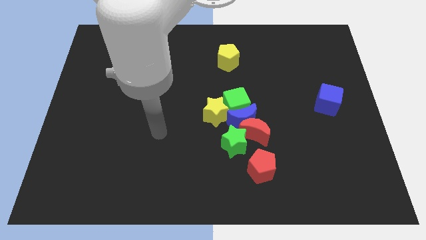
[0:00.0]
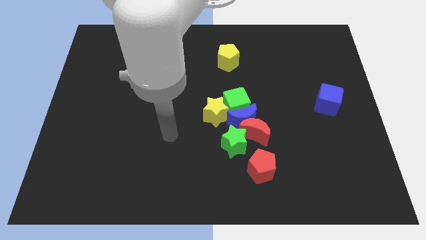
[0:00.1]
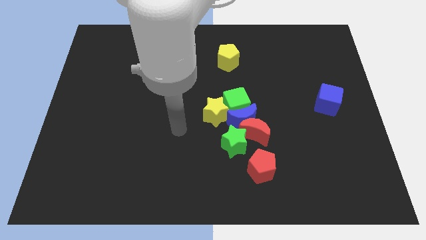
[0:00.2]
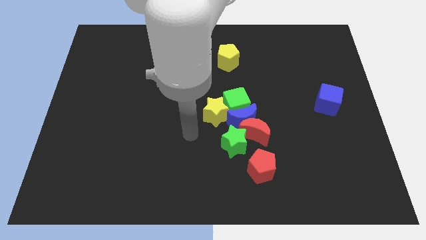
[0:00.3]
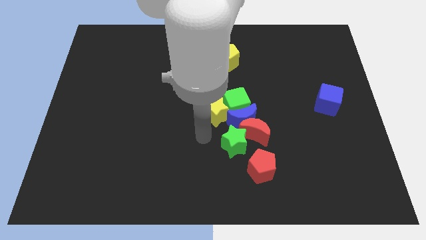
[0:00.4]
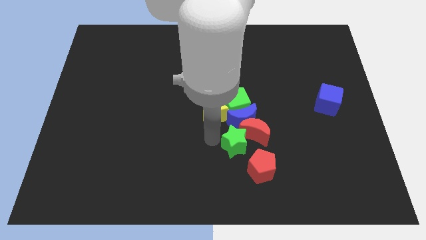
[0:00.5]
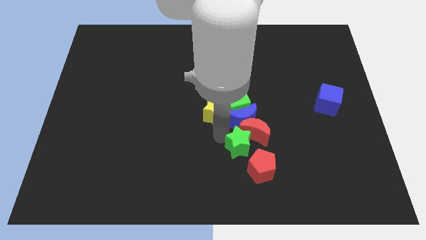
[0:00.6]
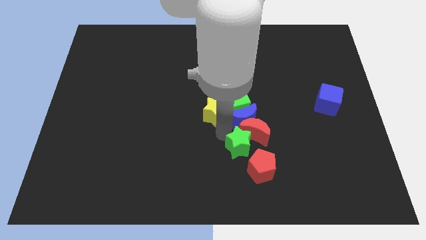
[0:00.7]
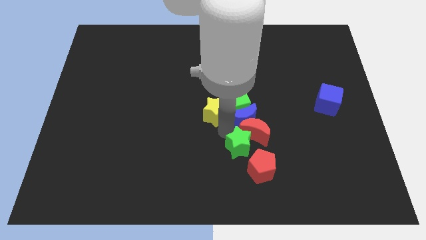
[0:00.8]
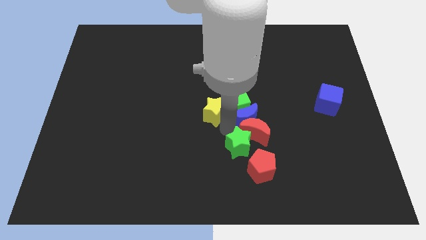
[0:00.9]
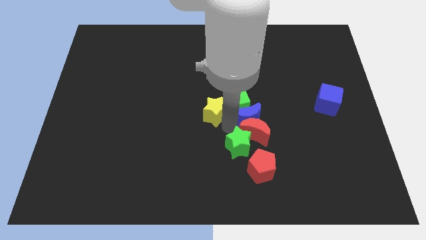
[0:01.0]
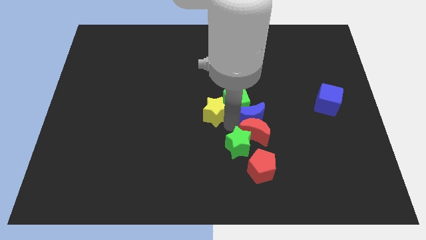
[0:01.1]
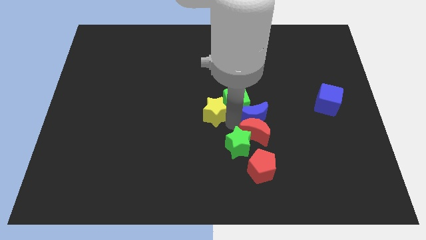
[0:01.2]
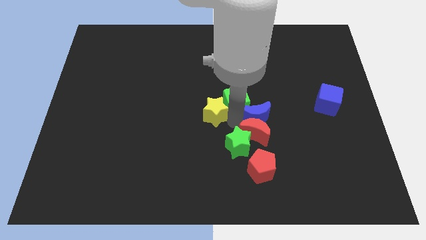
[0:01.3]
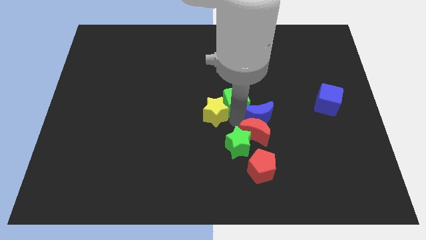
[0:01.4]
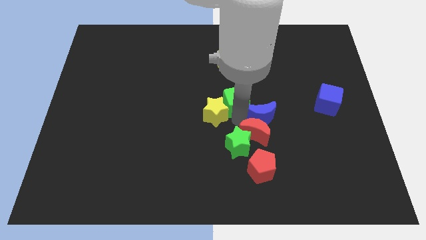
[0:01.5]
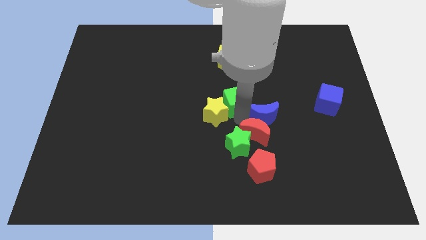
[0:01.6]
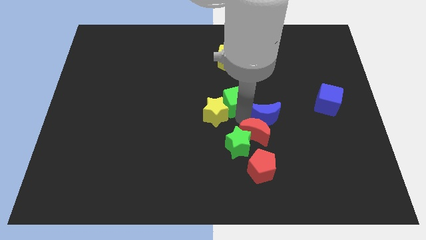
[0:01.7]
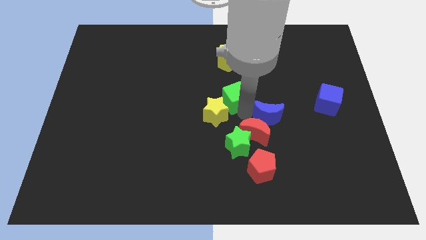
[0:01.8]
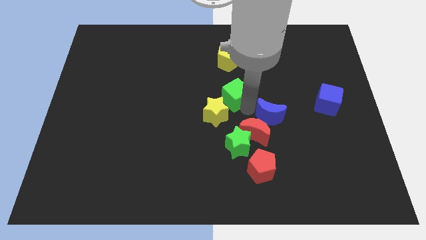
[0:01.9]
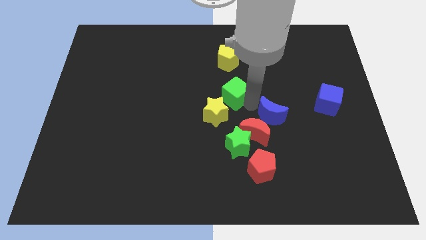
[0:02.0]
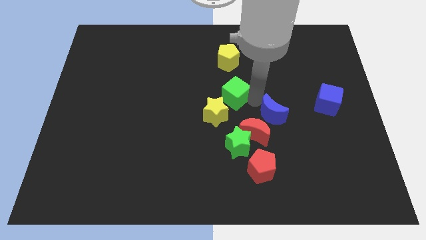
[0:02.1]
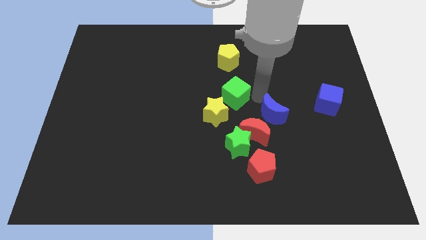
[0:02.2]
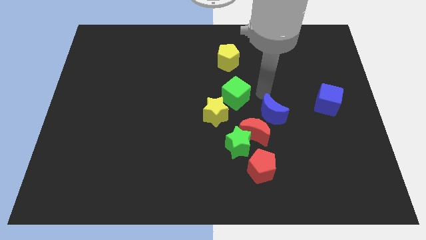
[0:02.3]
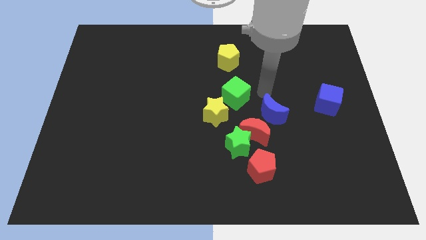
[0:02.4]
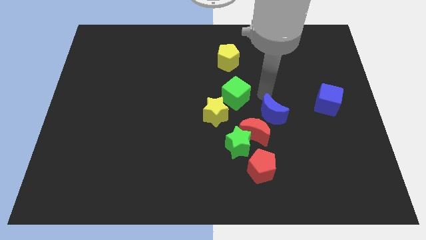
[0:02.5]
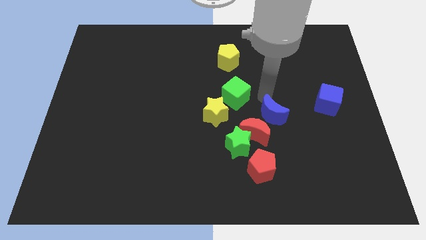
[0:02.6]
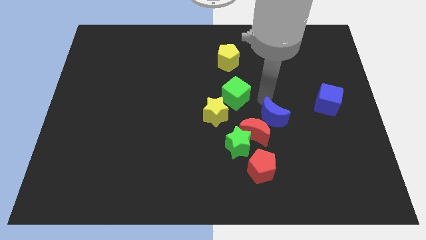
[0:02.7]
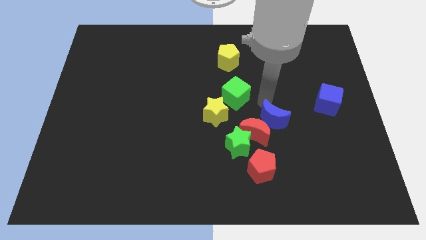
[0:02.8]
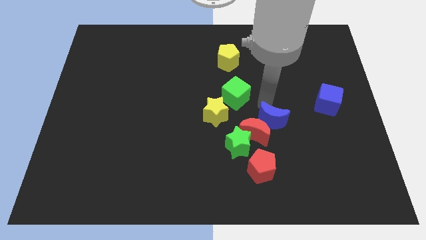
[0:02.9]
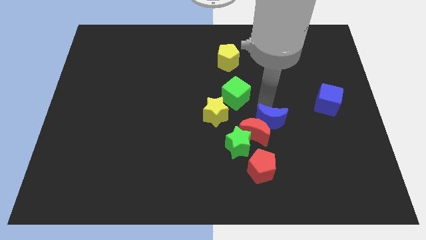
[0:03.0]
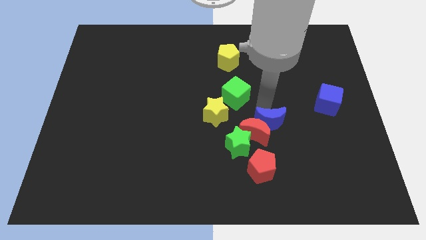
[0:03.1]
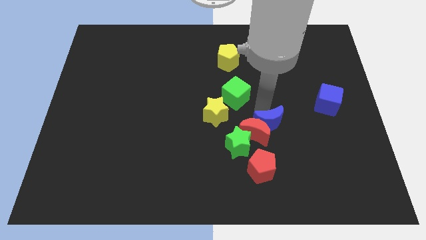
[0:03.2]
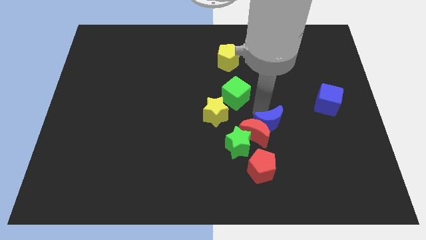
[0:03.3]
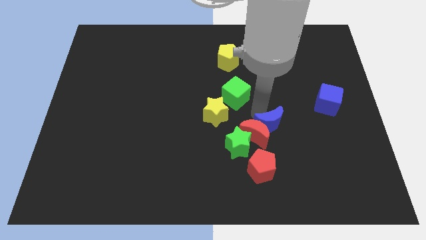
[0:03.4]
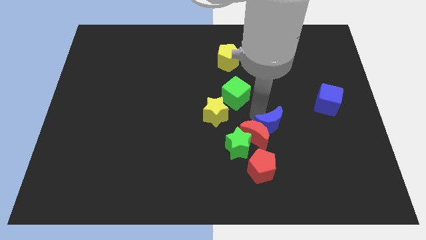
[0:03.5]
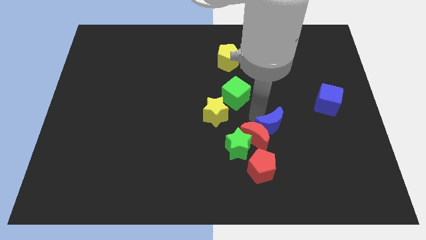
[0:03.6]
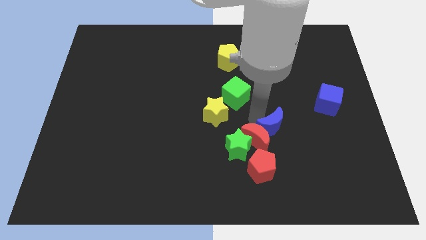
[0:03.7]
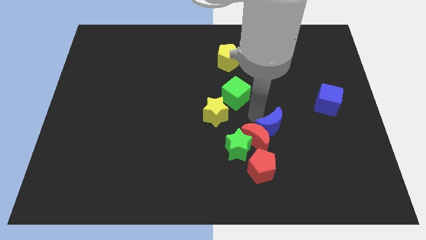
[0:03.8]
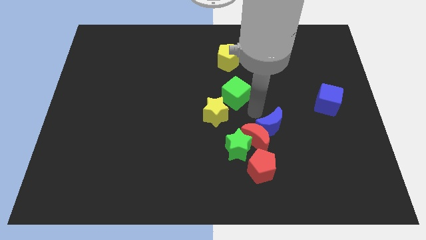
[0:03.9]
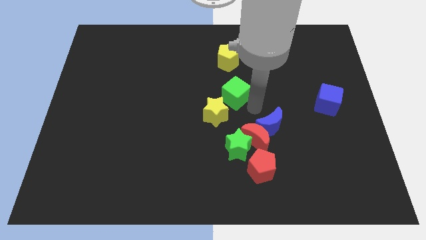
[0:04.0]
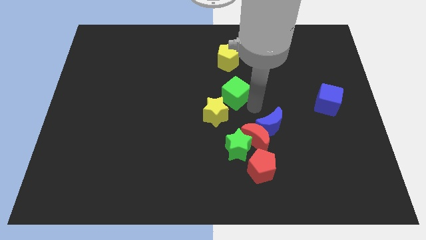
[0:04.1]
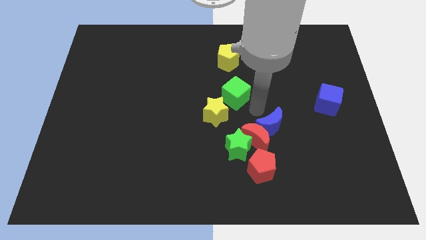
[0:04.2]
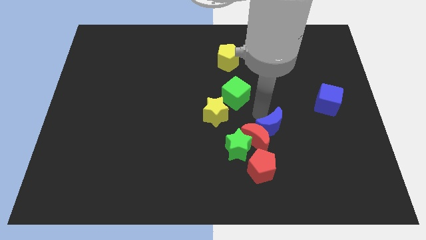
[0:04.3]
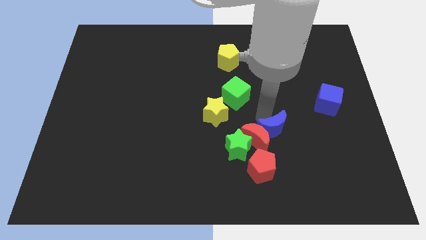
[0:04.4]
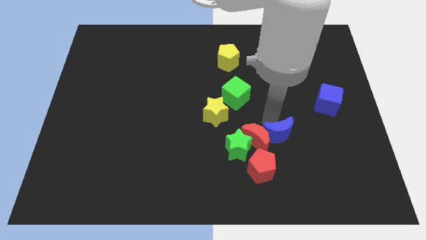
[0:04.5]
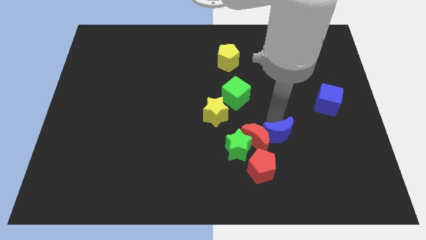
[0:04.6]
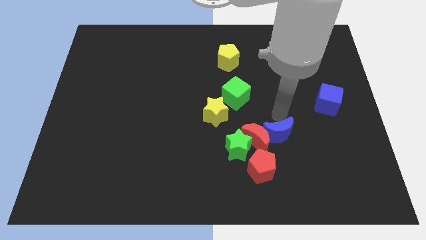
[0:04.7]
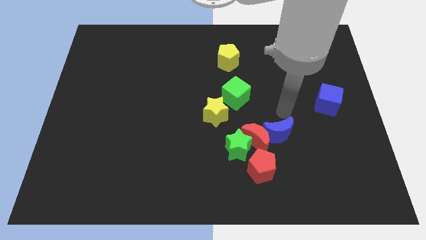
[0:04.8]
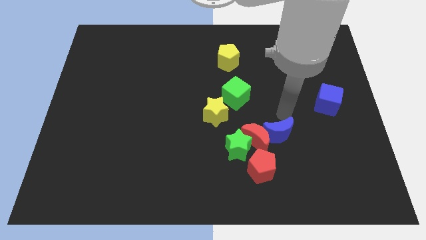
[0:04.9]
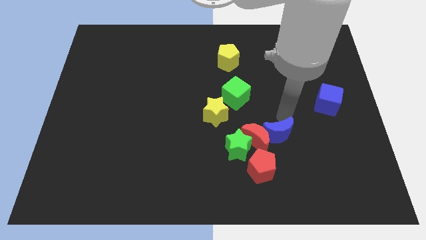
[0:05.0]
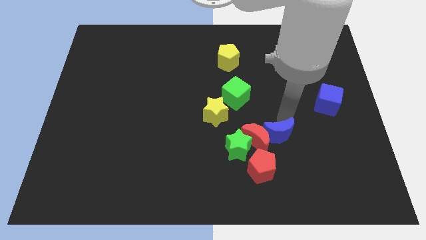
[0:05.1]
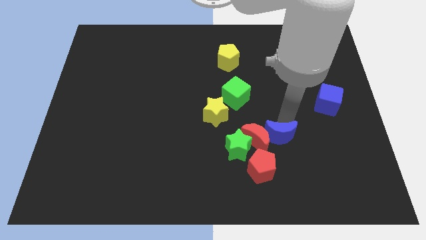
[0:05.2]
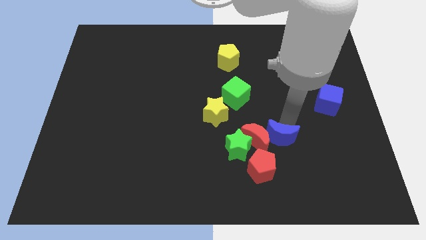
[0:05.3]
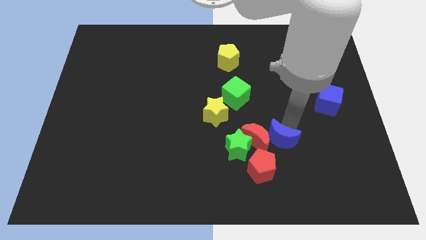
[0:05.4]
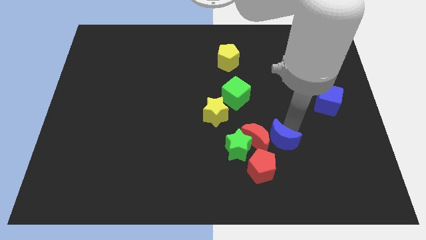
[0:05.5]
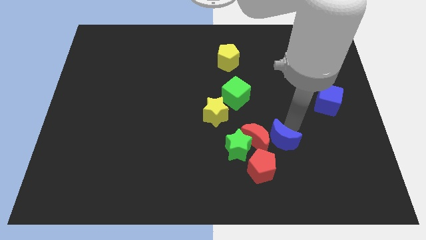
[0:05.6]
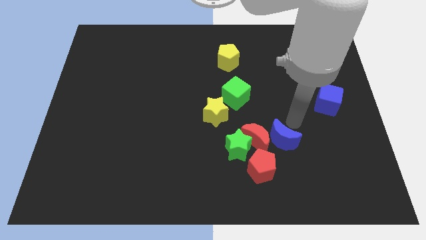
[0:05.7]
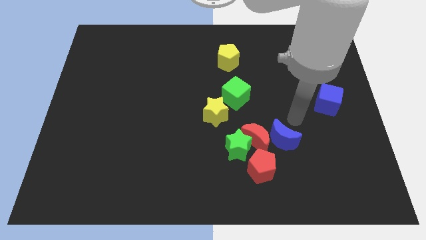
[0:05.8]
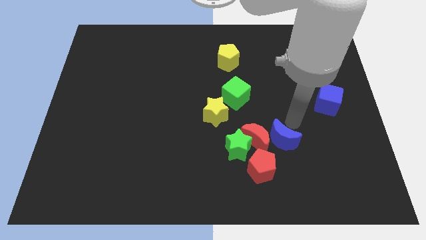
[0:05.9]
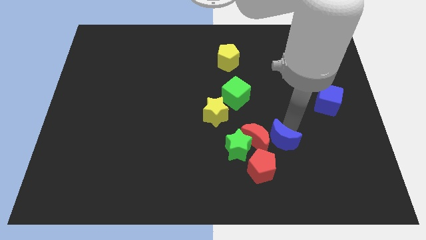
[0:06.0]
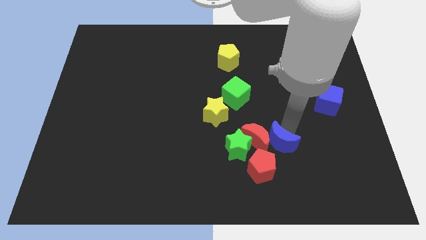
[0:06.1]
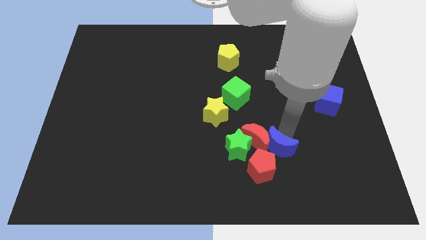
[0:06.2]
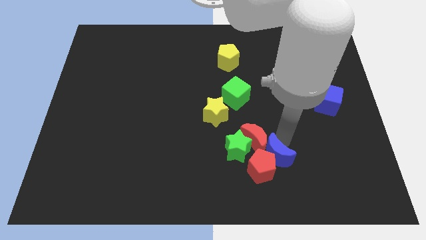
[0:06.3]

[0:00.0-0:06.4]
slide the blue moon towards the red pentagon
